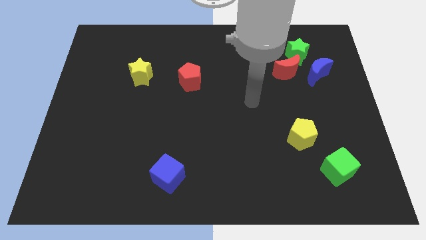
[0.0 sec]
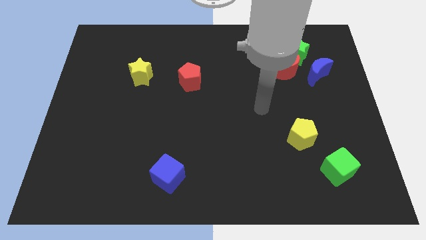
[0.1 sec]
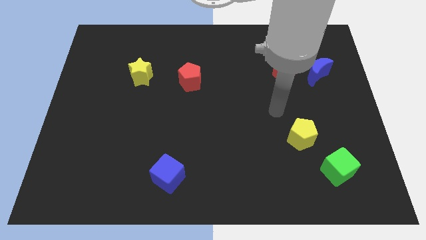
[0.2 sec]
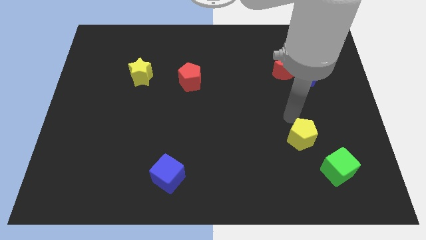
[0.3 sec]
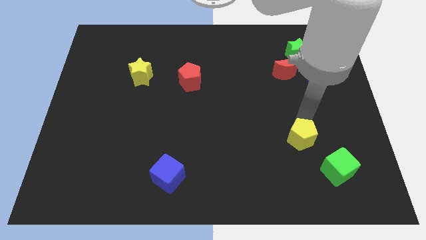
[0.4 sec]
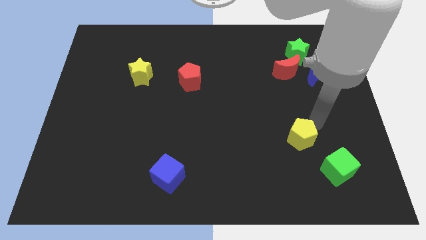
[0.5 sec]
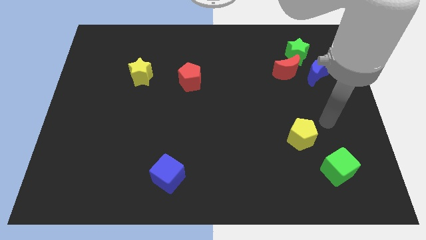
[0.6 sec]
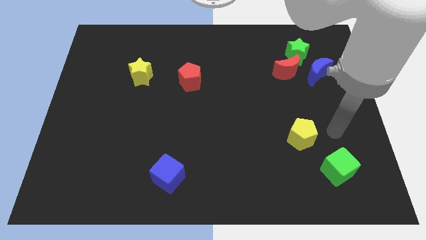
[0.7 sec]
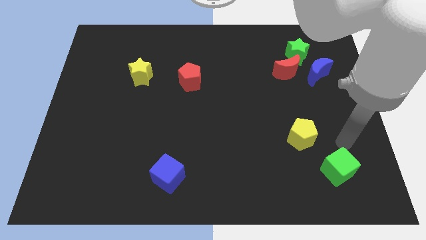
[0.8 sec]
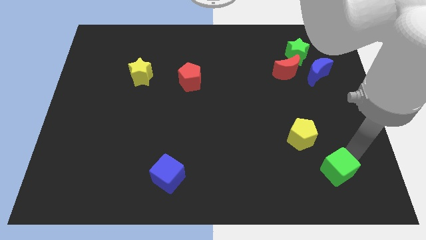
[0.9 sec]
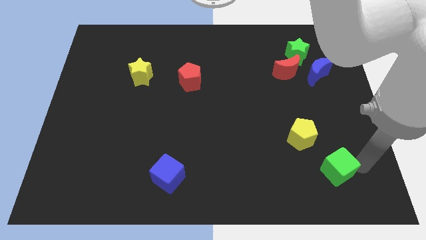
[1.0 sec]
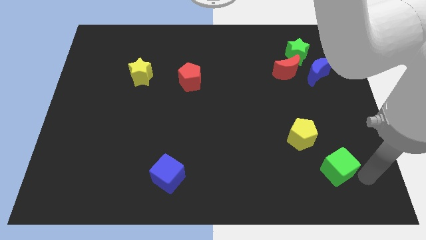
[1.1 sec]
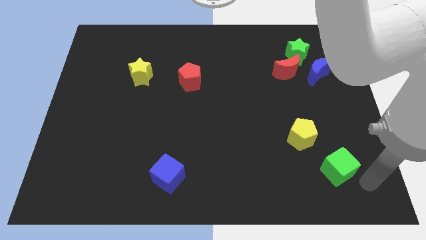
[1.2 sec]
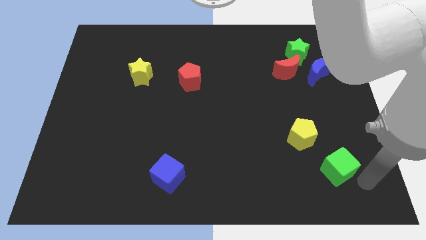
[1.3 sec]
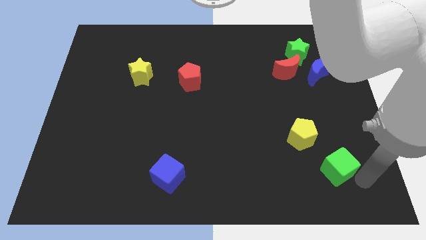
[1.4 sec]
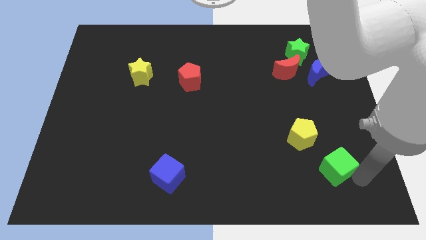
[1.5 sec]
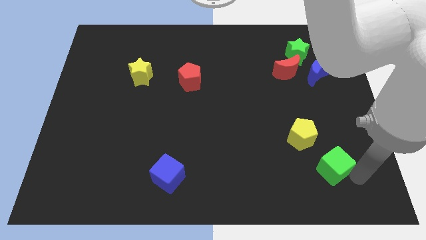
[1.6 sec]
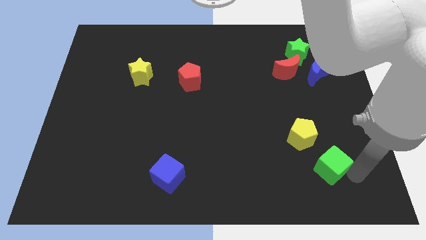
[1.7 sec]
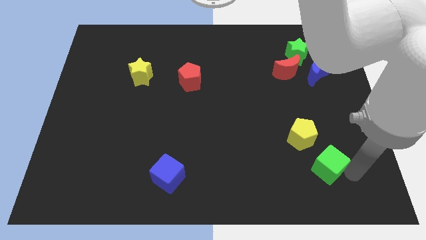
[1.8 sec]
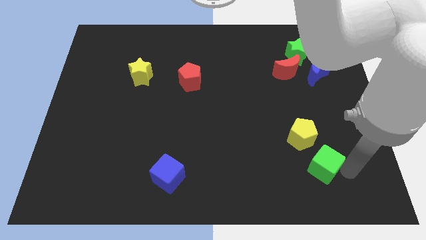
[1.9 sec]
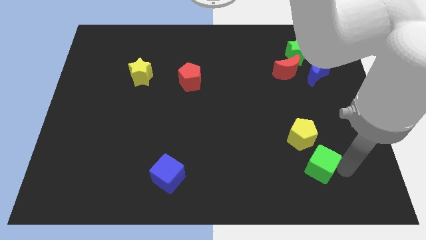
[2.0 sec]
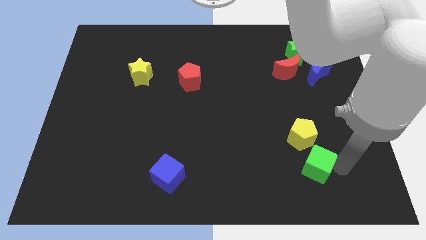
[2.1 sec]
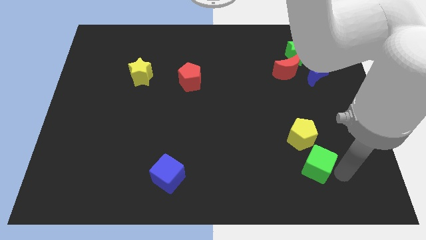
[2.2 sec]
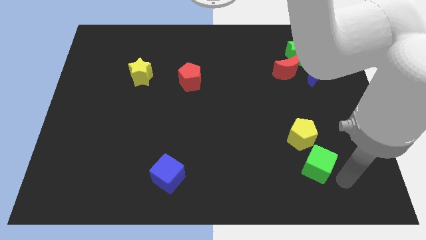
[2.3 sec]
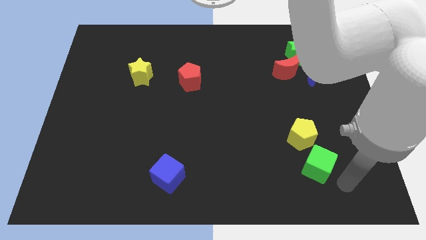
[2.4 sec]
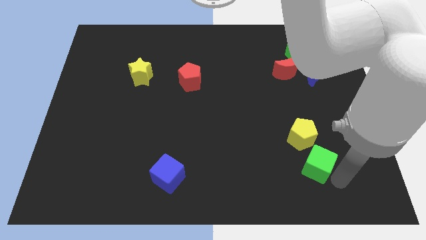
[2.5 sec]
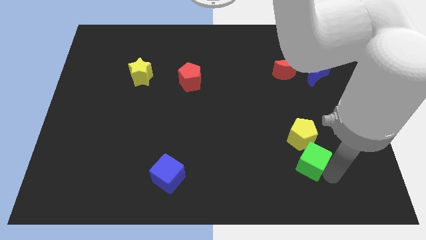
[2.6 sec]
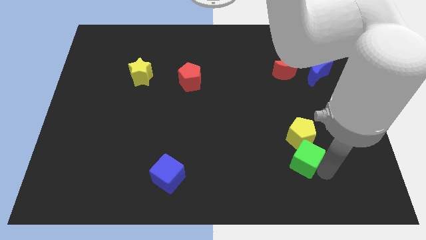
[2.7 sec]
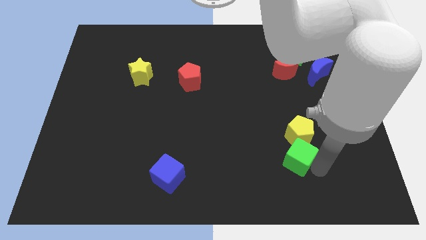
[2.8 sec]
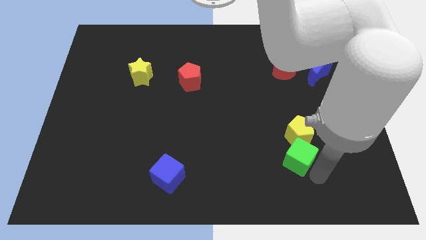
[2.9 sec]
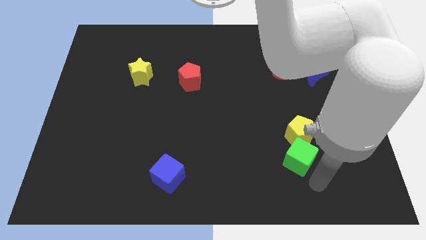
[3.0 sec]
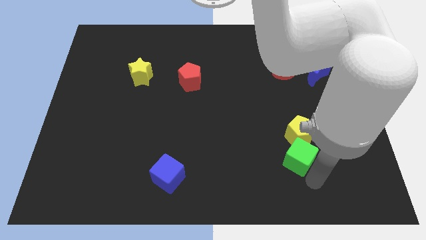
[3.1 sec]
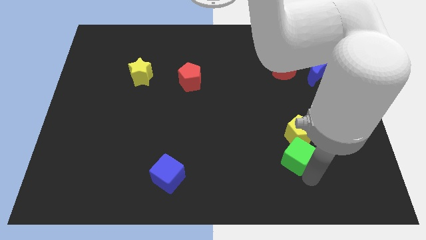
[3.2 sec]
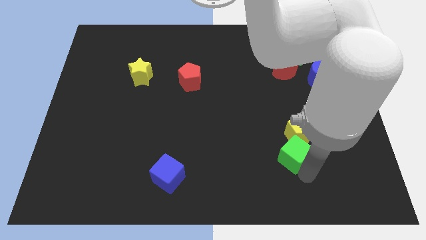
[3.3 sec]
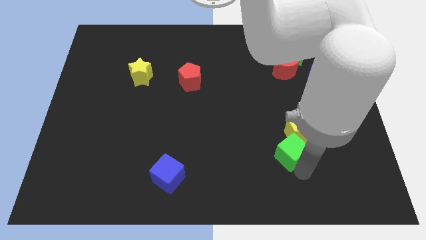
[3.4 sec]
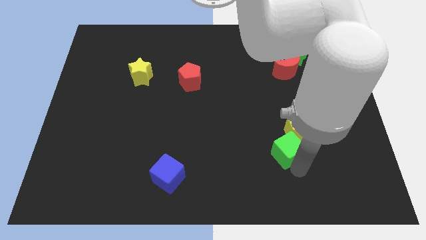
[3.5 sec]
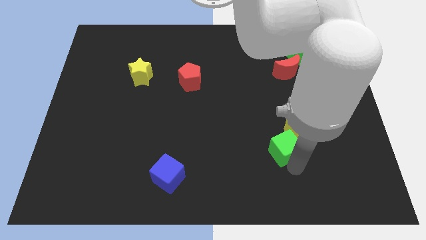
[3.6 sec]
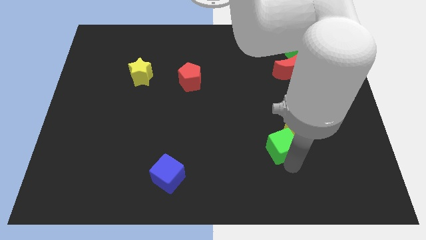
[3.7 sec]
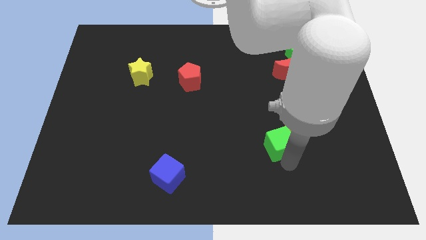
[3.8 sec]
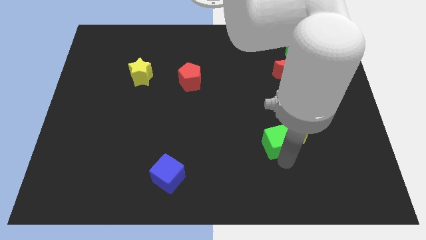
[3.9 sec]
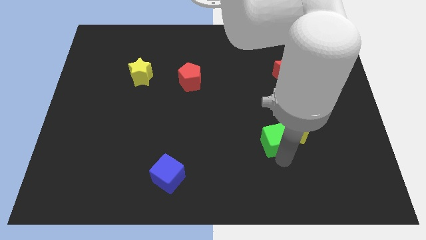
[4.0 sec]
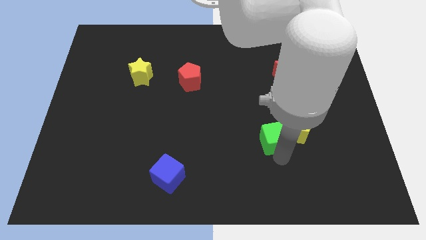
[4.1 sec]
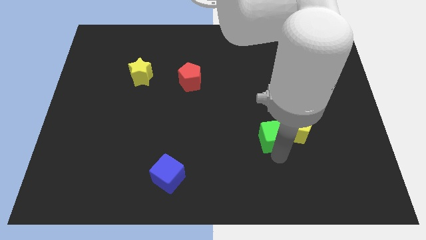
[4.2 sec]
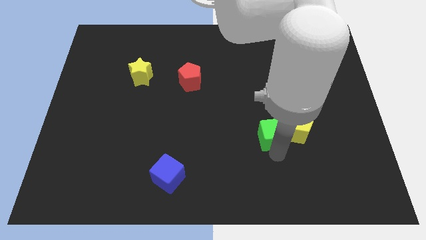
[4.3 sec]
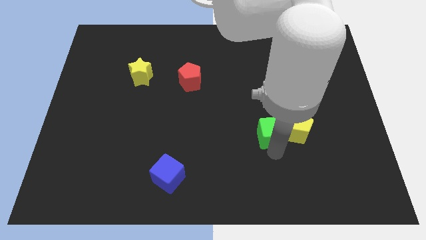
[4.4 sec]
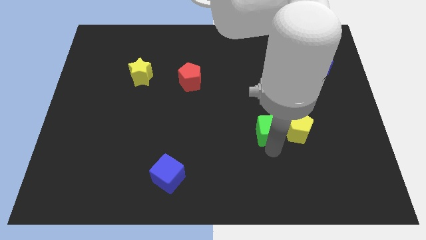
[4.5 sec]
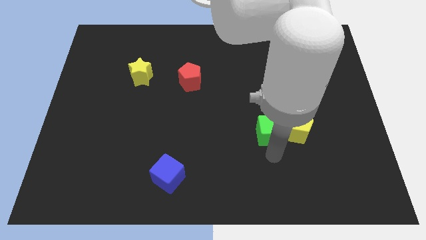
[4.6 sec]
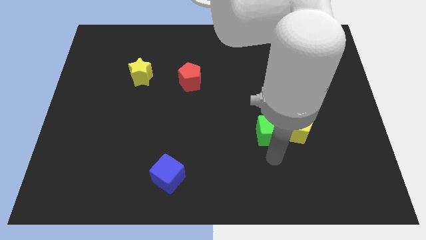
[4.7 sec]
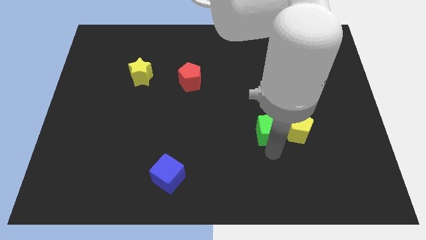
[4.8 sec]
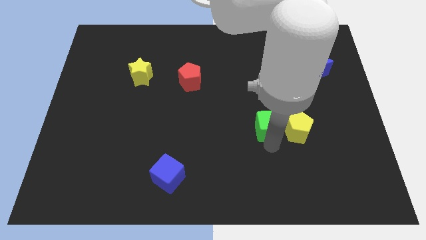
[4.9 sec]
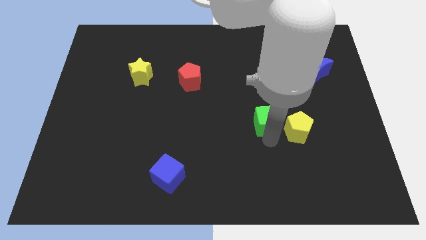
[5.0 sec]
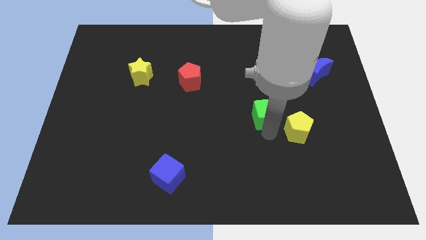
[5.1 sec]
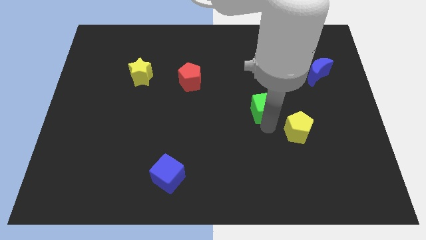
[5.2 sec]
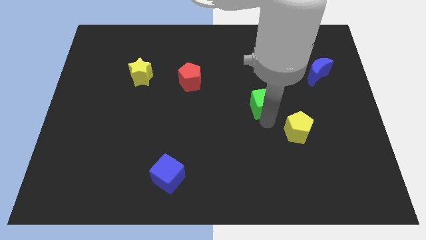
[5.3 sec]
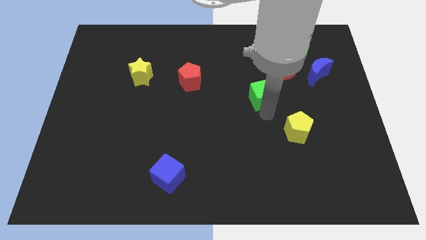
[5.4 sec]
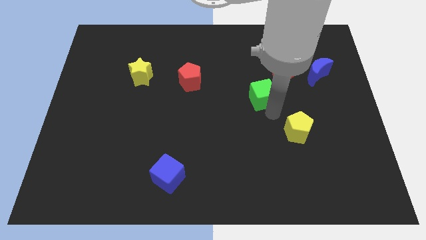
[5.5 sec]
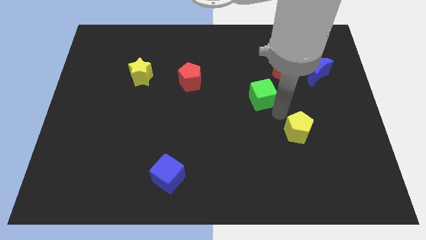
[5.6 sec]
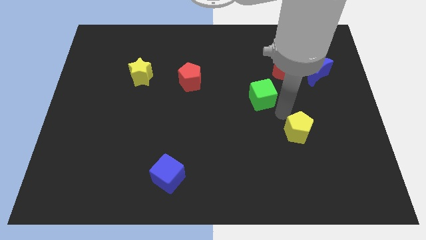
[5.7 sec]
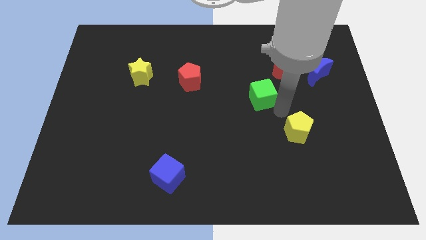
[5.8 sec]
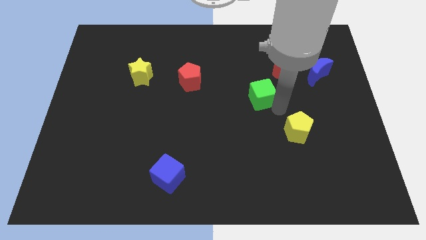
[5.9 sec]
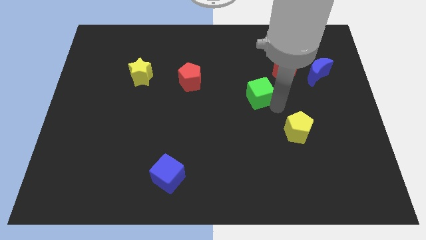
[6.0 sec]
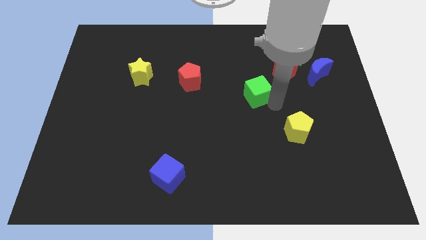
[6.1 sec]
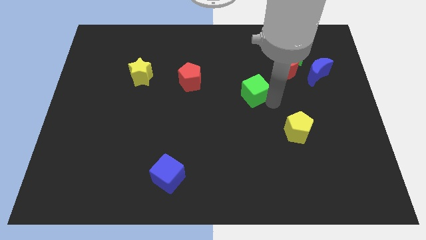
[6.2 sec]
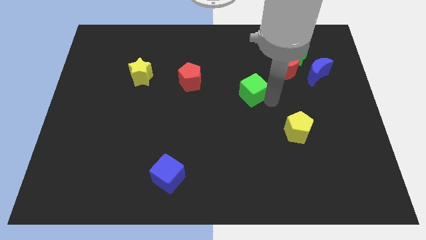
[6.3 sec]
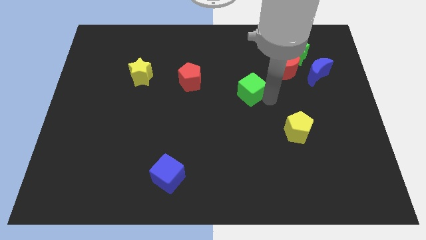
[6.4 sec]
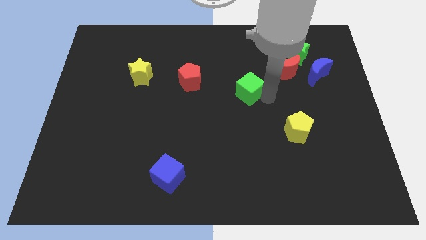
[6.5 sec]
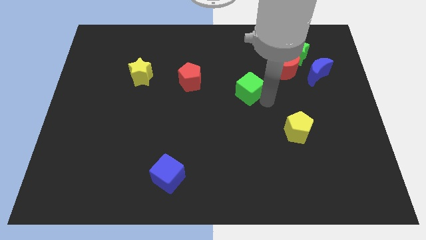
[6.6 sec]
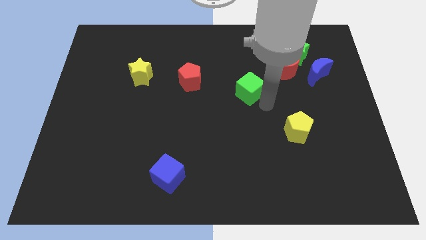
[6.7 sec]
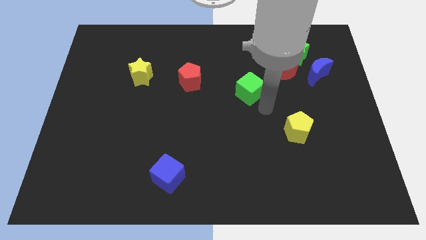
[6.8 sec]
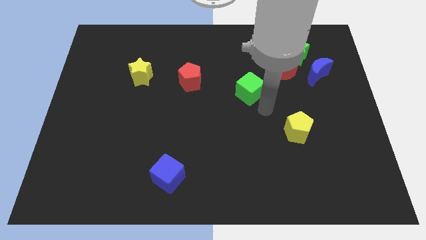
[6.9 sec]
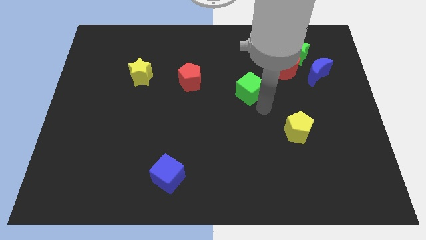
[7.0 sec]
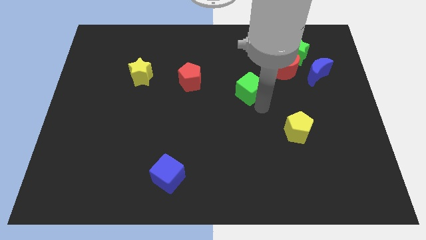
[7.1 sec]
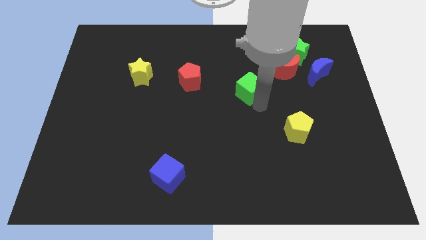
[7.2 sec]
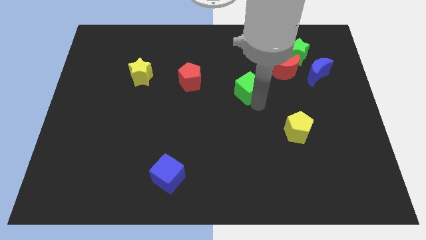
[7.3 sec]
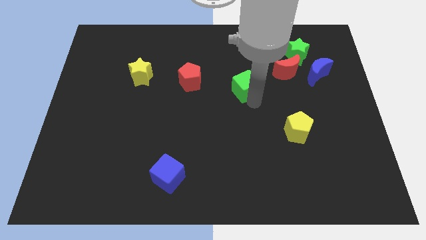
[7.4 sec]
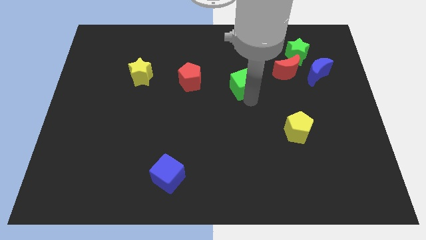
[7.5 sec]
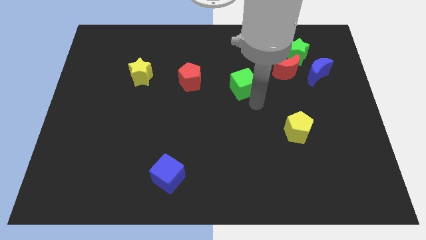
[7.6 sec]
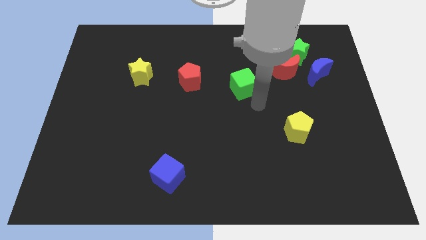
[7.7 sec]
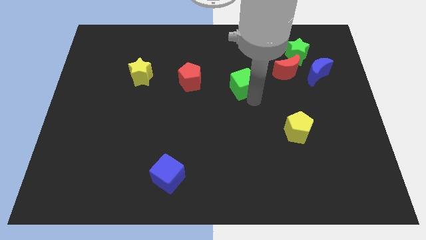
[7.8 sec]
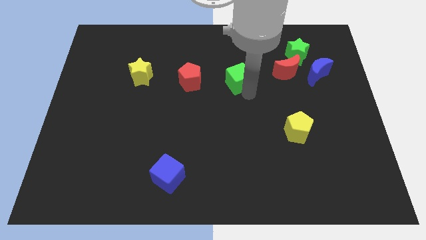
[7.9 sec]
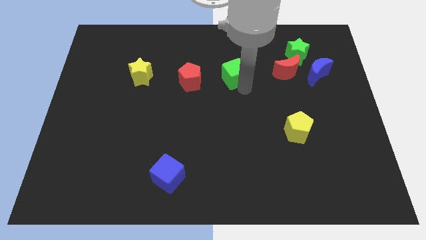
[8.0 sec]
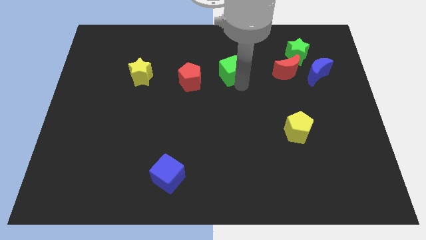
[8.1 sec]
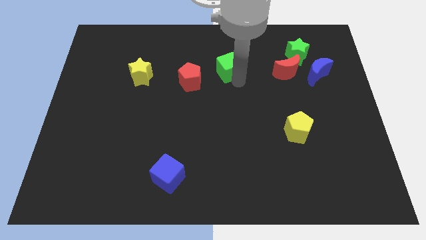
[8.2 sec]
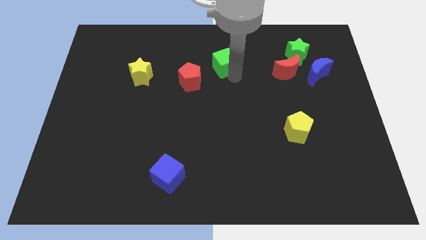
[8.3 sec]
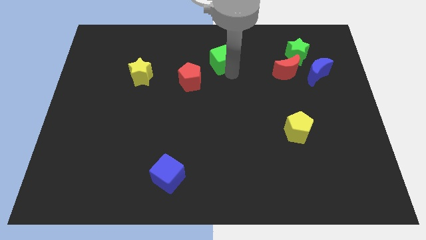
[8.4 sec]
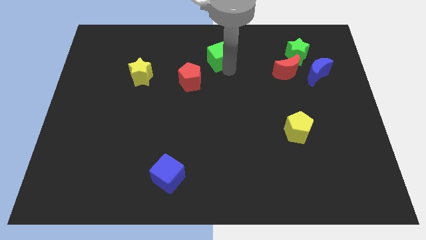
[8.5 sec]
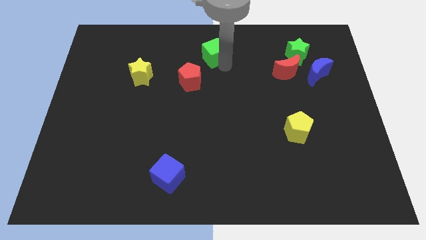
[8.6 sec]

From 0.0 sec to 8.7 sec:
slide the green cube to the towards your base
